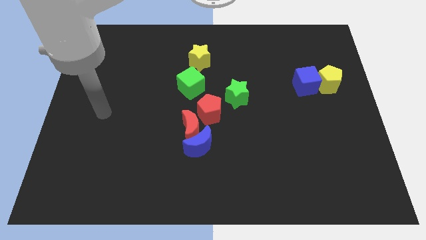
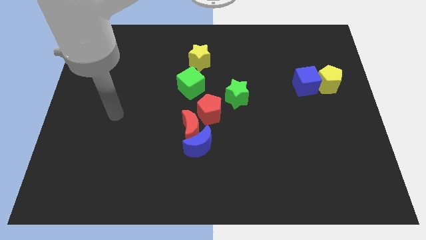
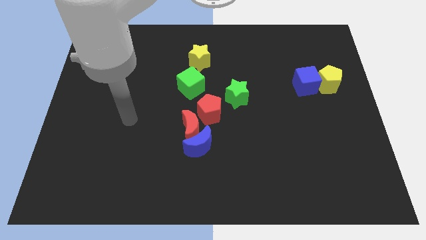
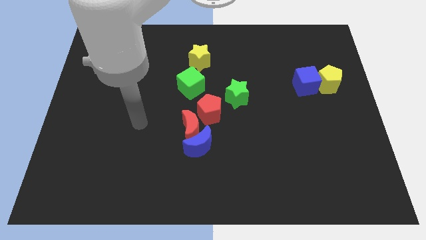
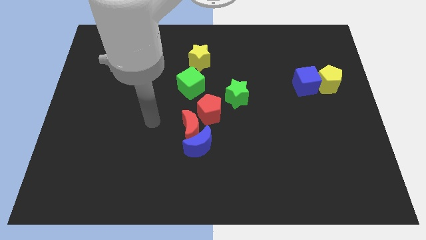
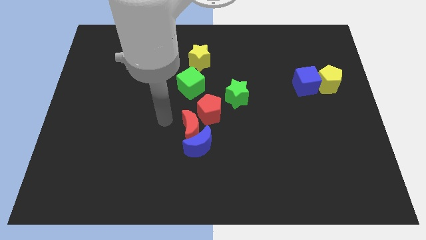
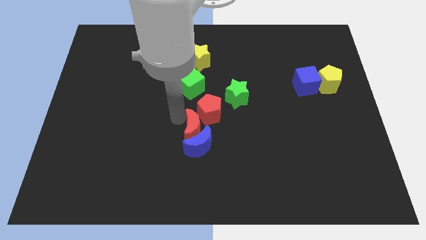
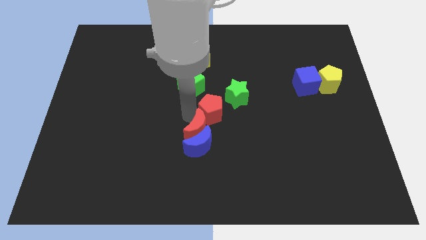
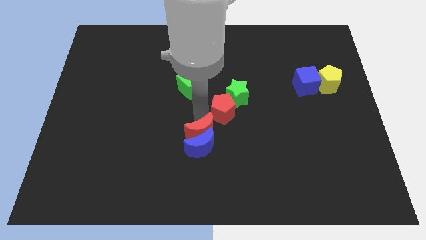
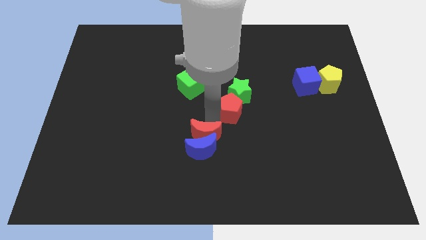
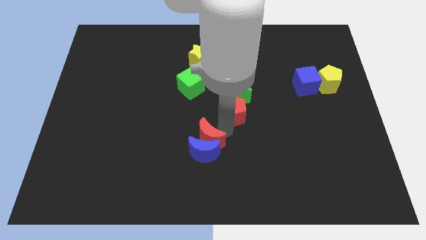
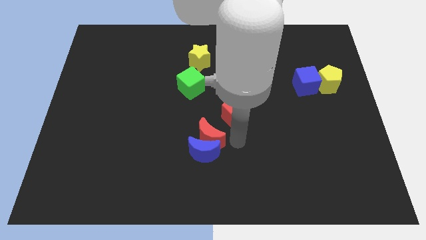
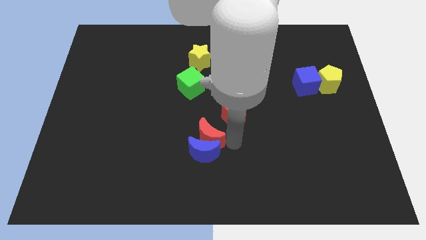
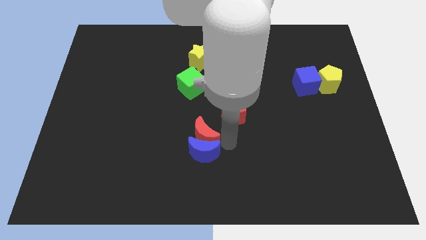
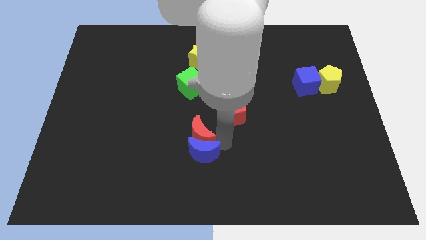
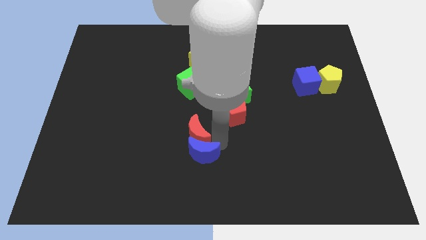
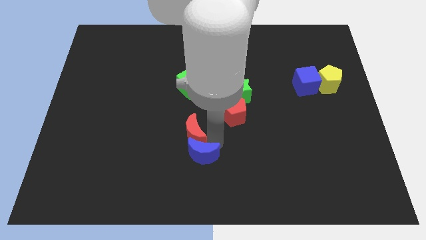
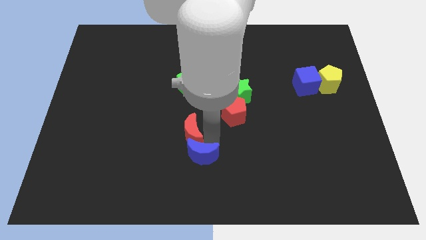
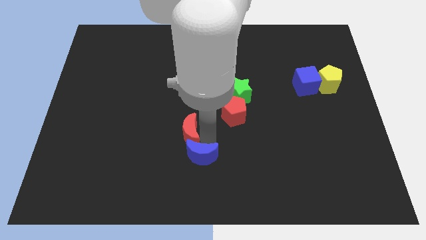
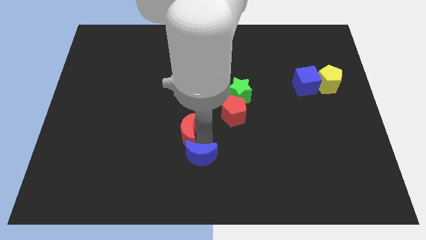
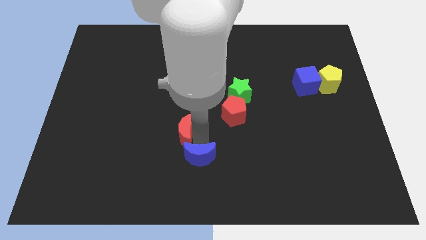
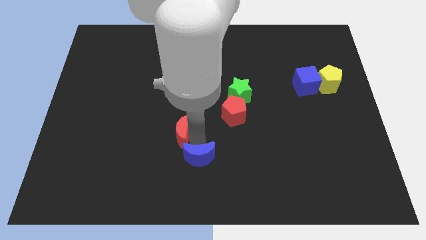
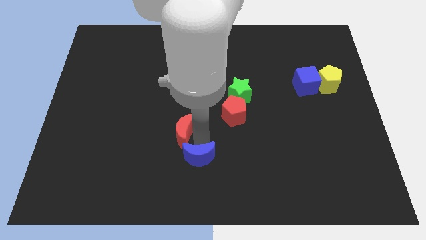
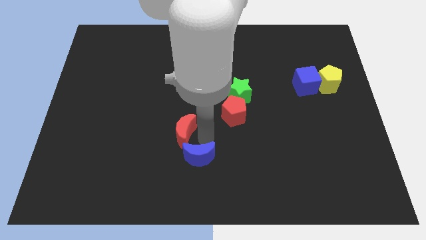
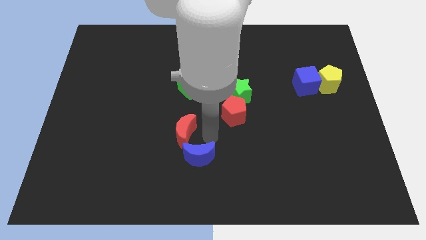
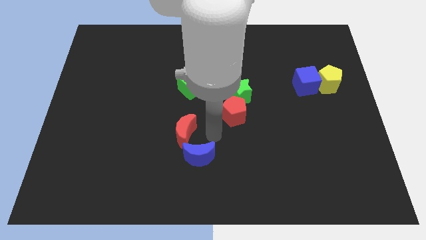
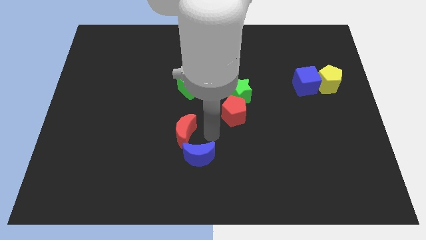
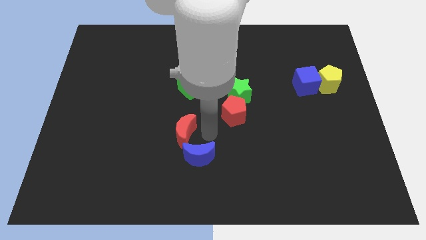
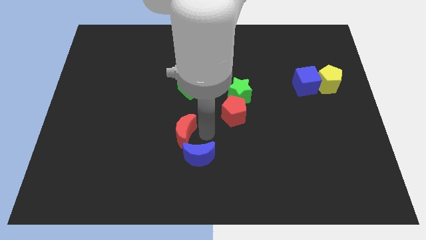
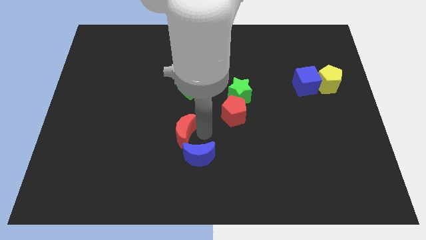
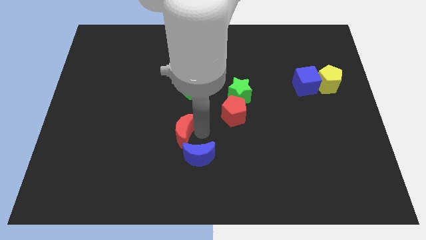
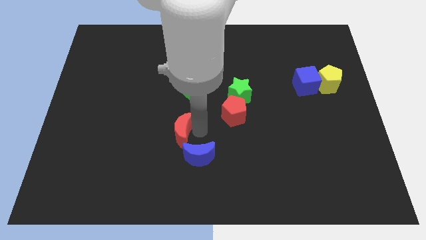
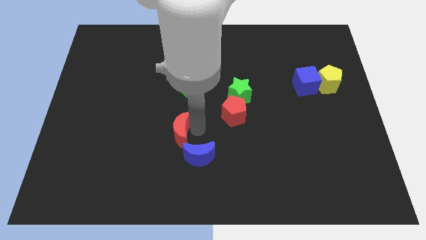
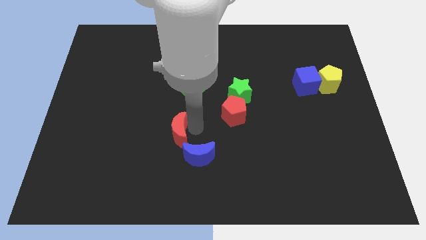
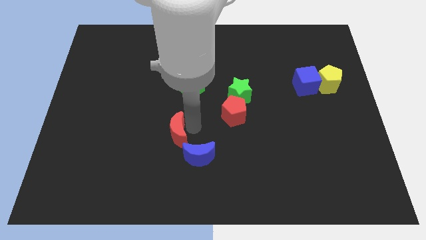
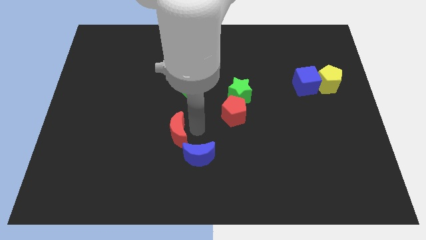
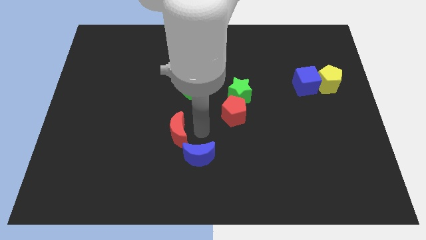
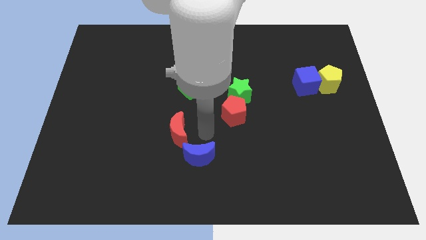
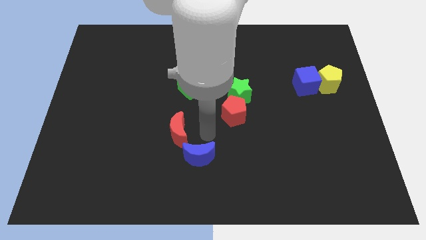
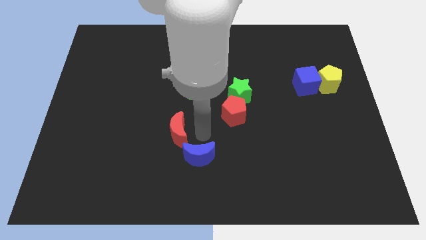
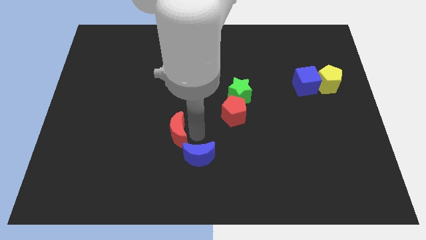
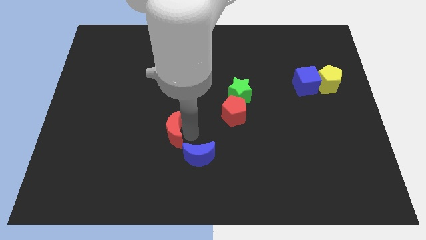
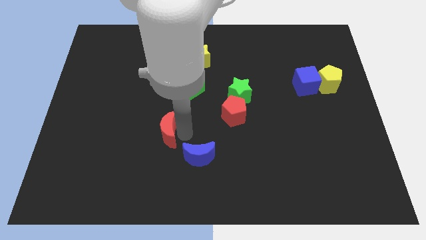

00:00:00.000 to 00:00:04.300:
move the red moon away from the blue moon and red pentagon

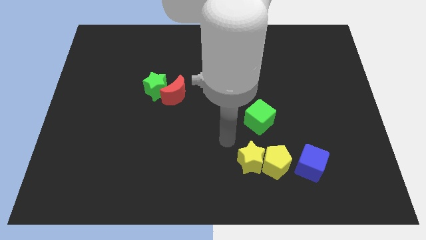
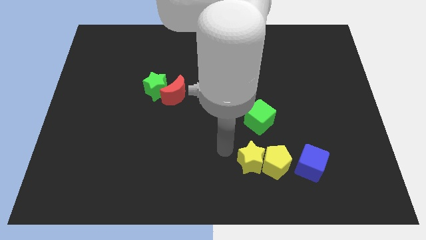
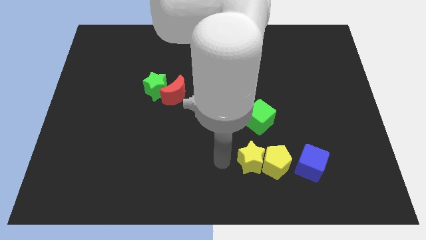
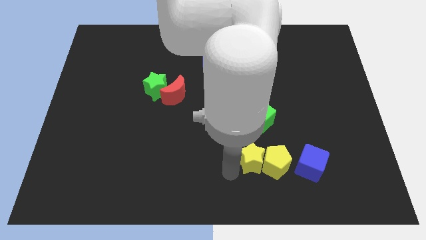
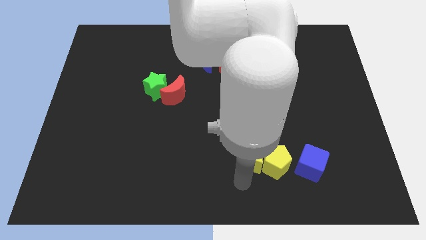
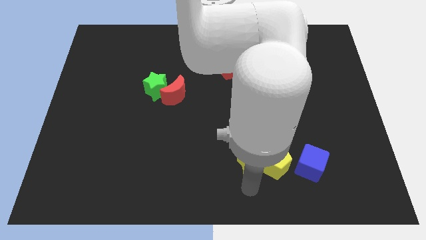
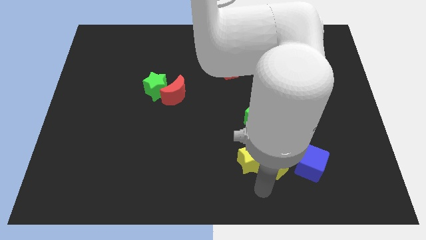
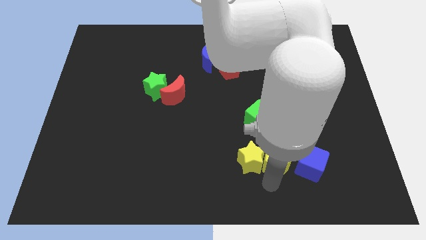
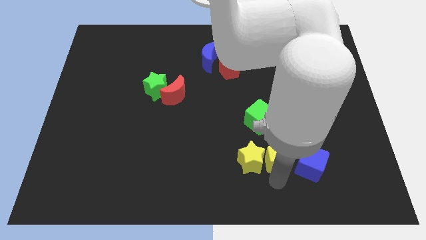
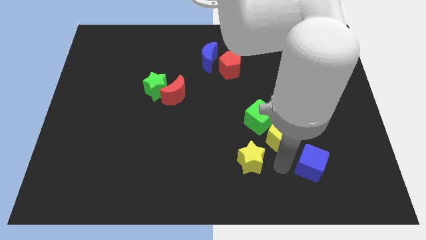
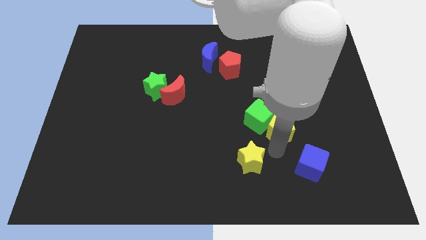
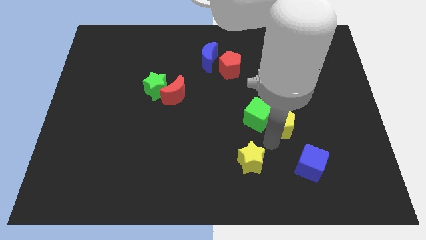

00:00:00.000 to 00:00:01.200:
move the yellow star away from the yellow pentagon

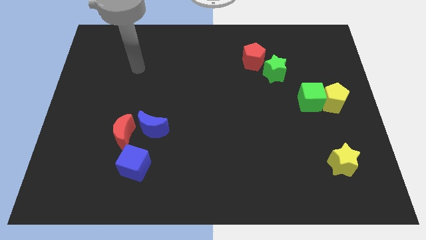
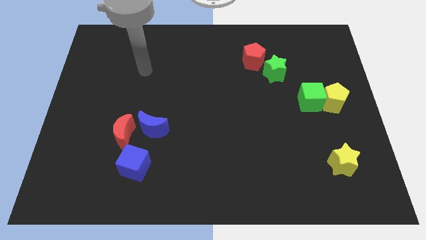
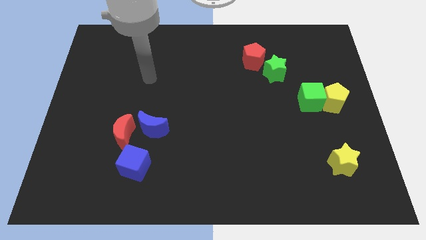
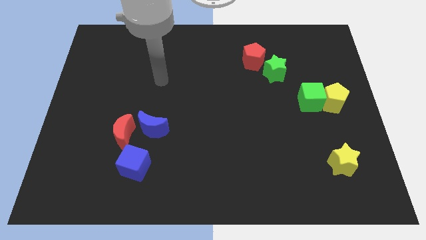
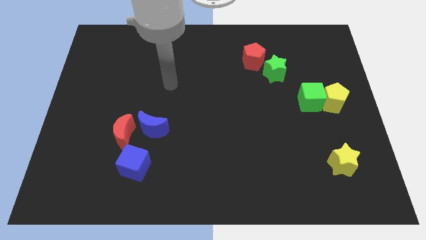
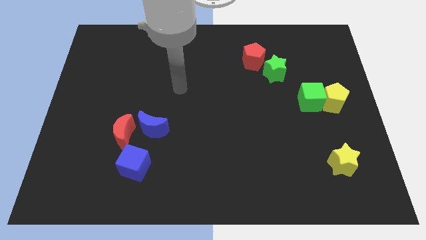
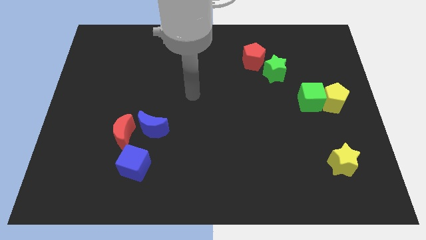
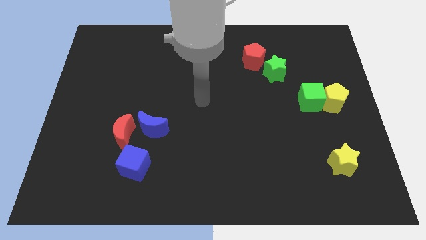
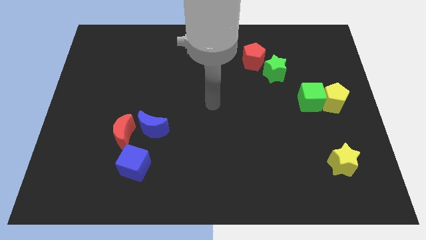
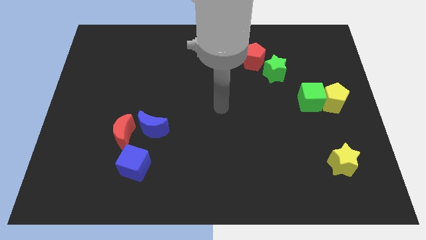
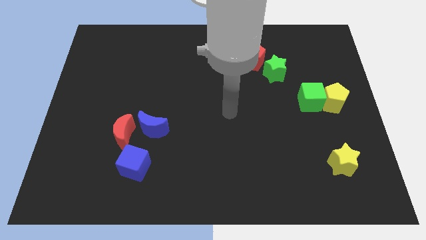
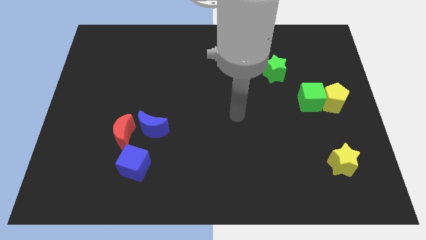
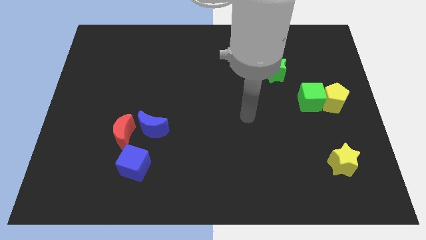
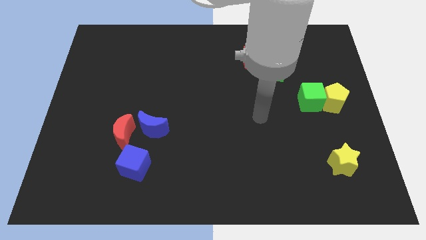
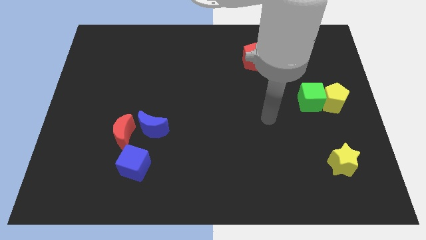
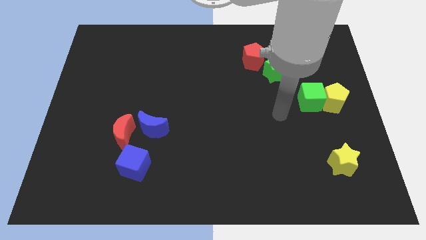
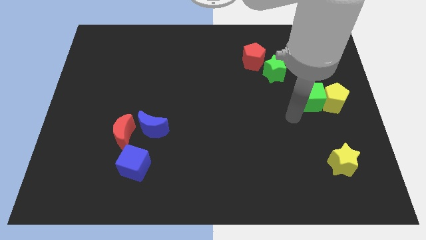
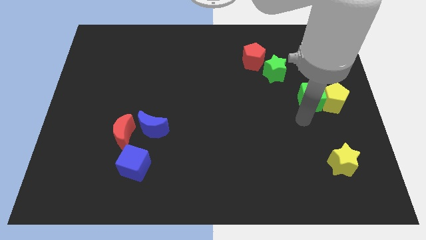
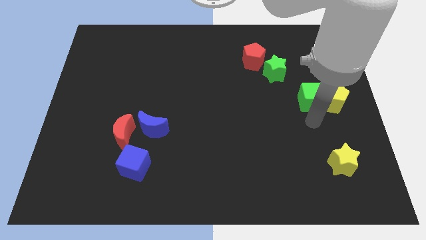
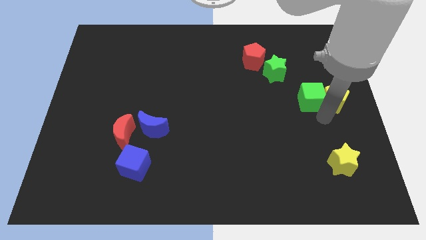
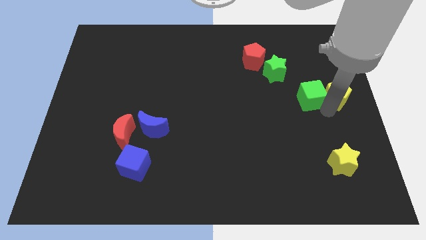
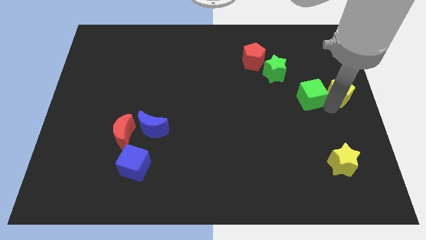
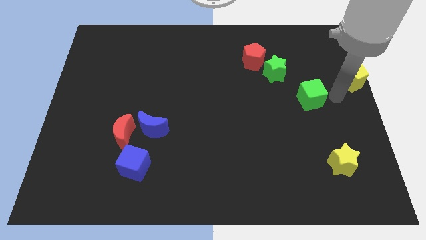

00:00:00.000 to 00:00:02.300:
separate the green cube from the yellow pentagon

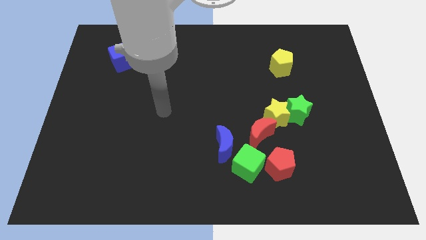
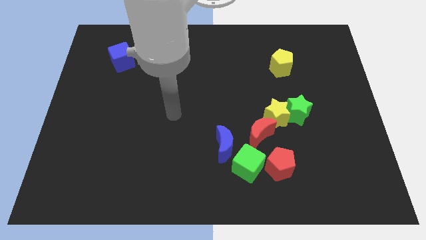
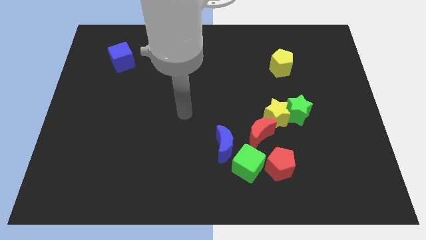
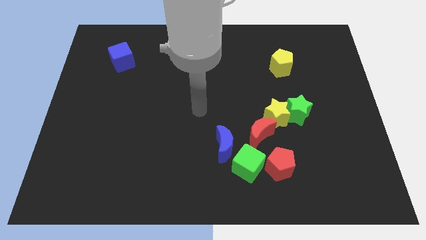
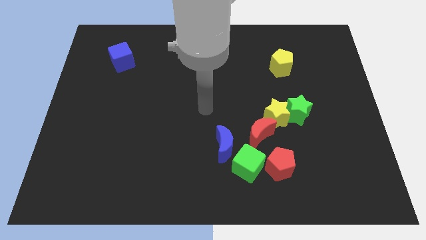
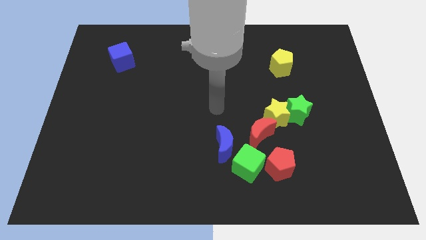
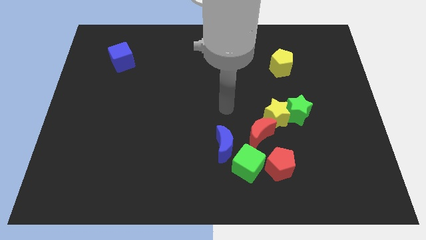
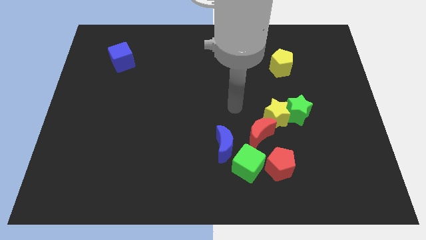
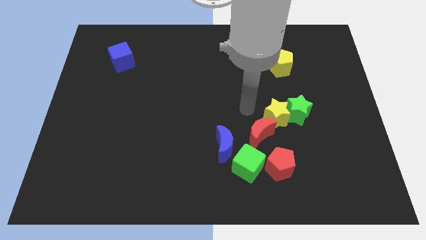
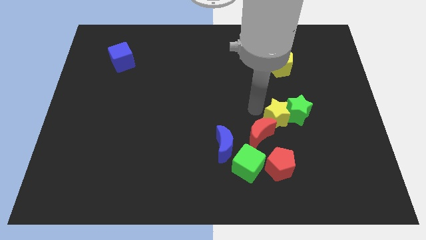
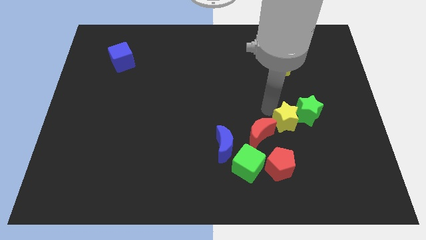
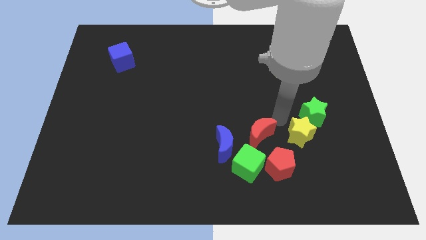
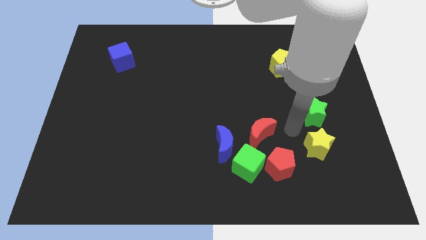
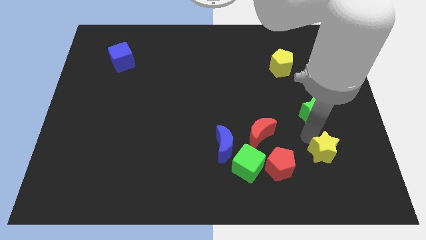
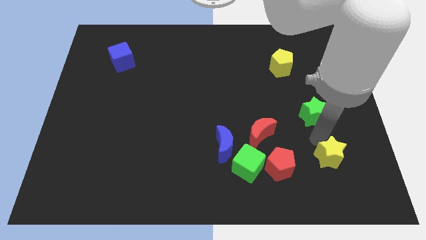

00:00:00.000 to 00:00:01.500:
pull the green star apart from the yellow star

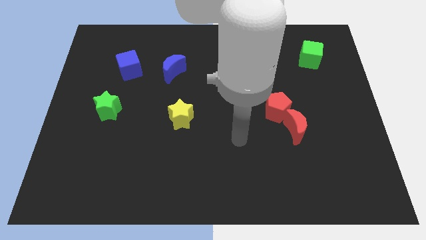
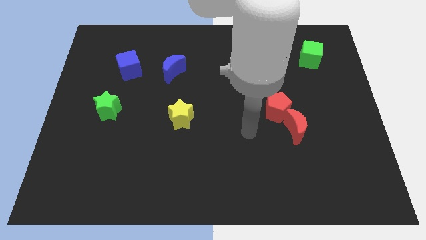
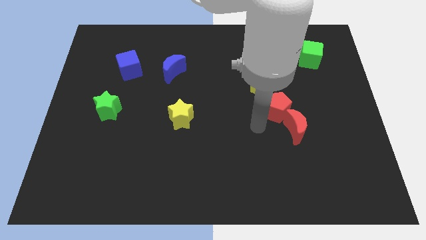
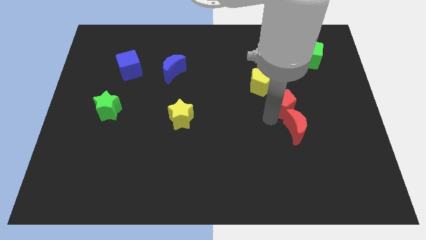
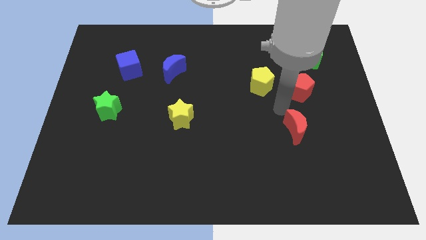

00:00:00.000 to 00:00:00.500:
pull the red moon apart from the red pentagon
